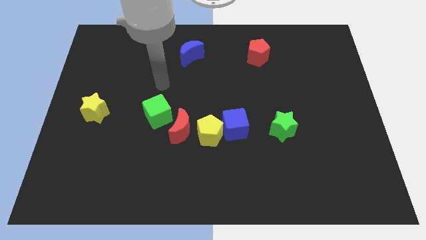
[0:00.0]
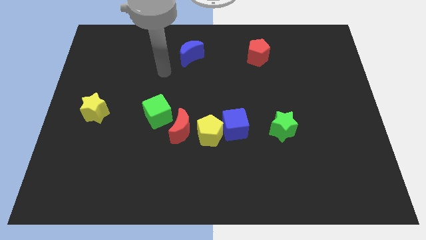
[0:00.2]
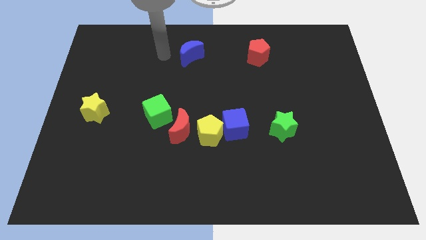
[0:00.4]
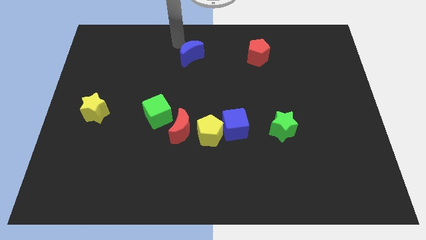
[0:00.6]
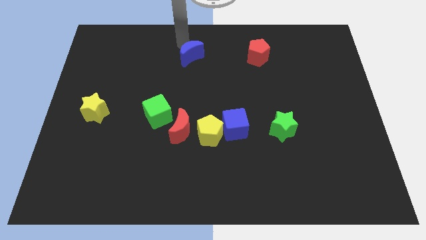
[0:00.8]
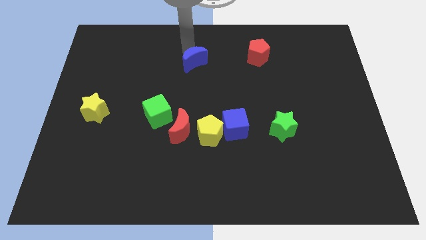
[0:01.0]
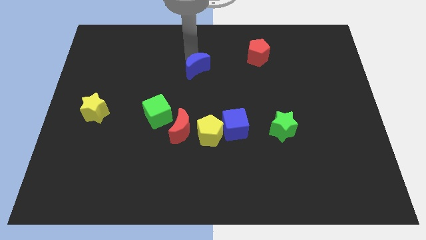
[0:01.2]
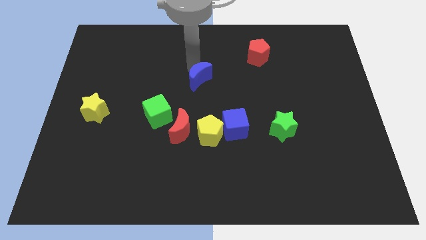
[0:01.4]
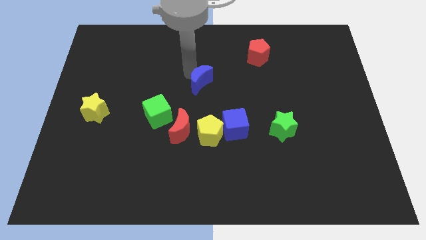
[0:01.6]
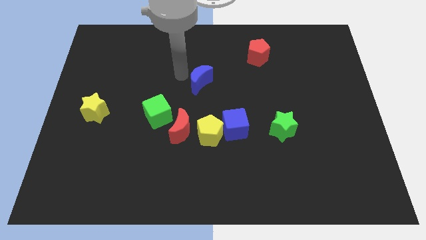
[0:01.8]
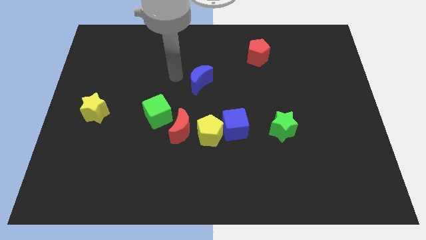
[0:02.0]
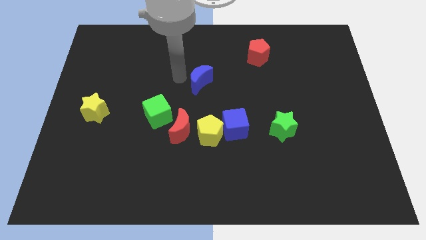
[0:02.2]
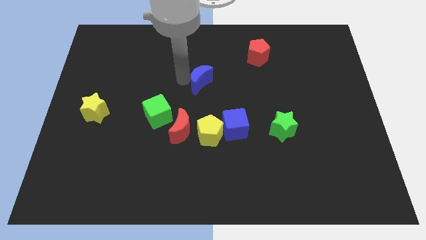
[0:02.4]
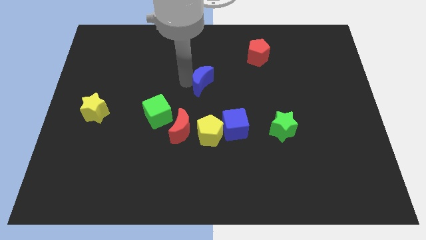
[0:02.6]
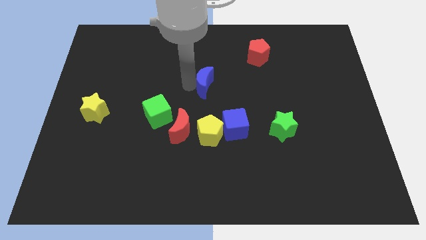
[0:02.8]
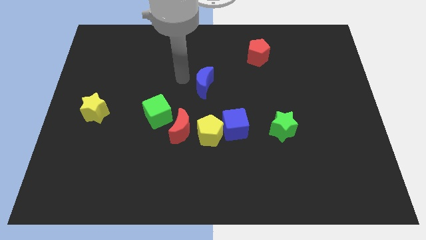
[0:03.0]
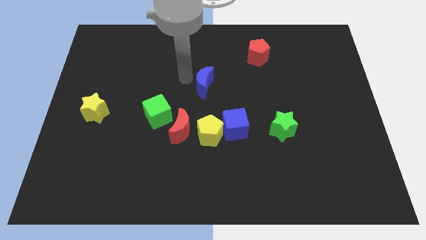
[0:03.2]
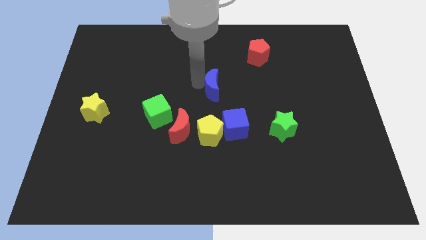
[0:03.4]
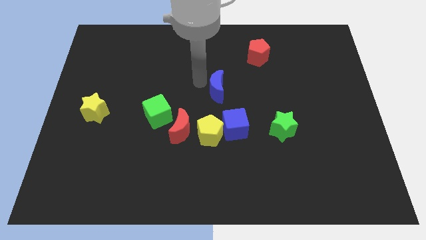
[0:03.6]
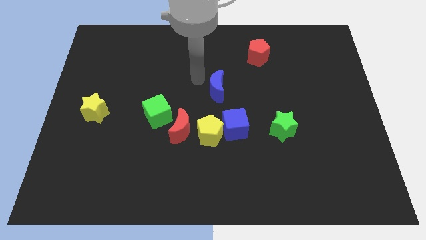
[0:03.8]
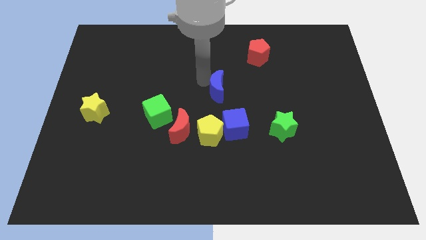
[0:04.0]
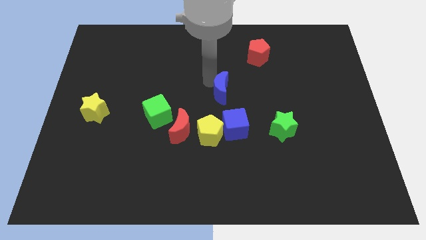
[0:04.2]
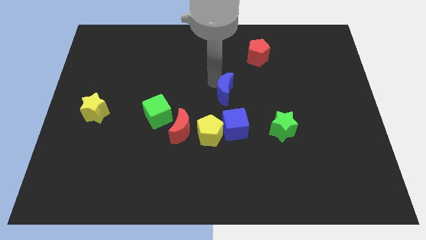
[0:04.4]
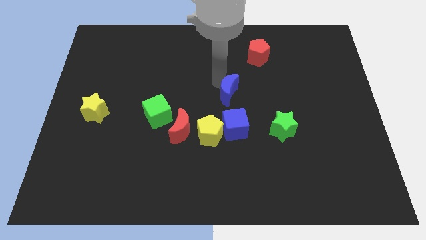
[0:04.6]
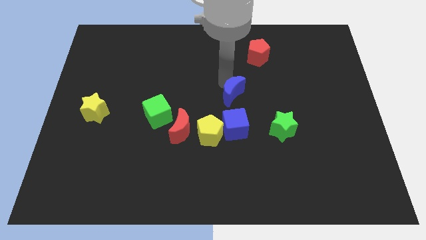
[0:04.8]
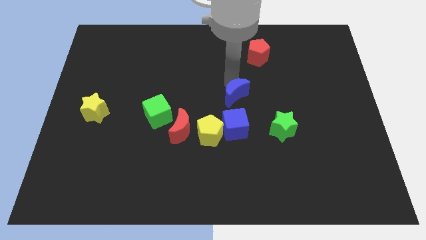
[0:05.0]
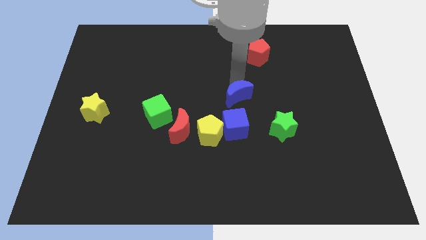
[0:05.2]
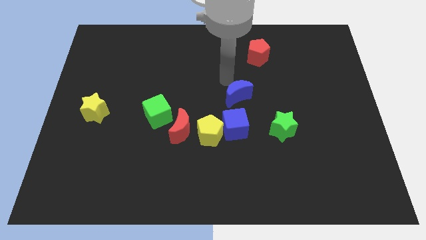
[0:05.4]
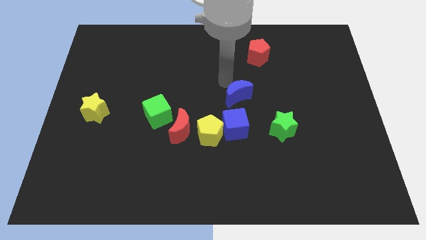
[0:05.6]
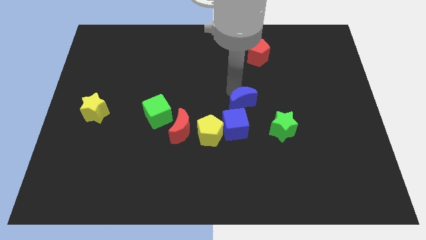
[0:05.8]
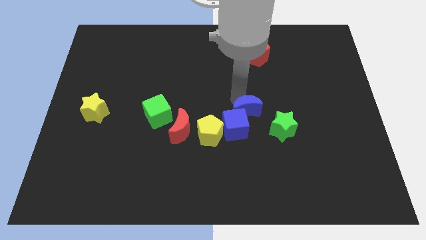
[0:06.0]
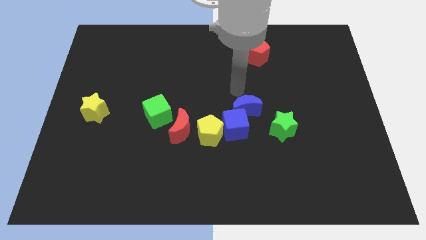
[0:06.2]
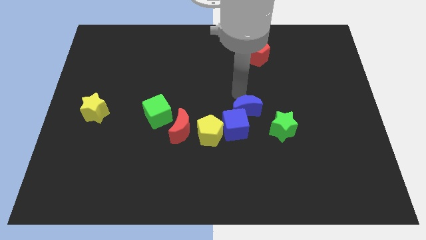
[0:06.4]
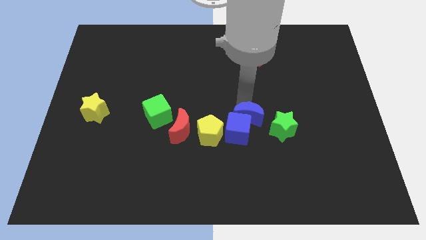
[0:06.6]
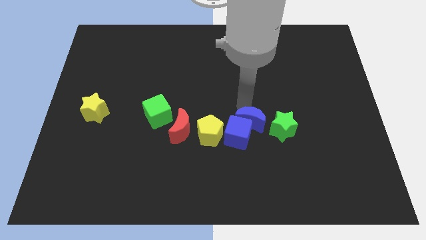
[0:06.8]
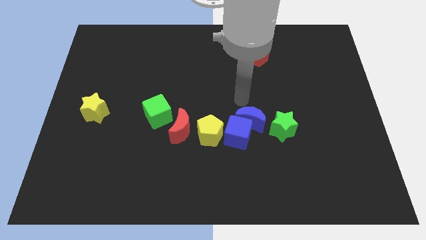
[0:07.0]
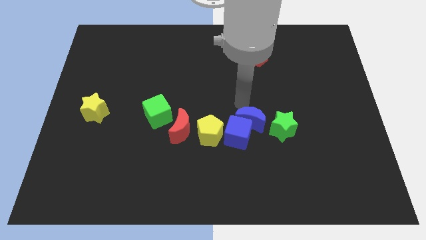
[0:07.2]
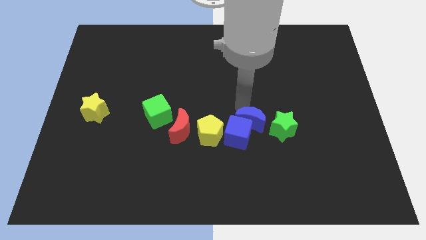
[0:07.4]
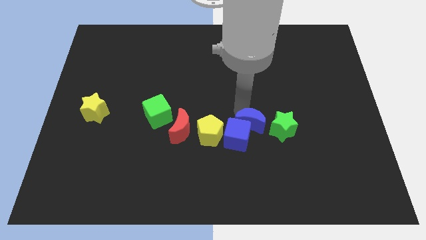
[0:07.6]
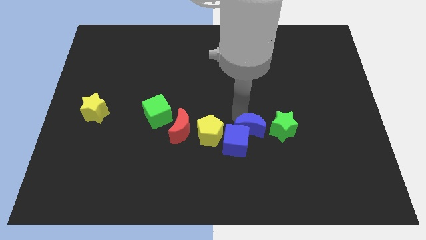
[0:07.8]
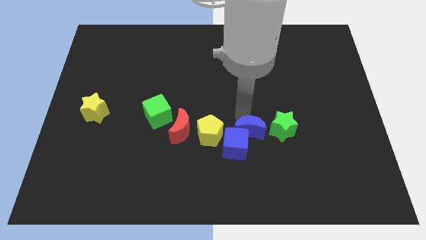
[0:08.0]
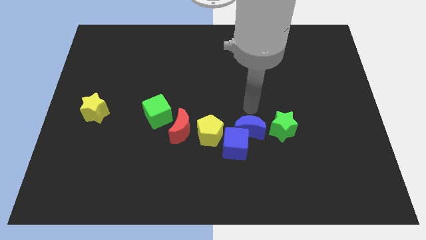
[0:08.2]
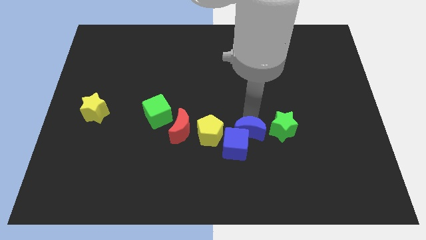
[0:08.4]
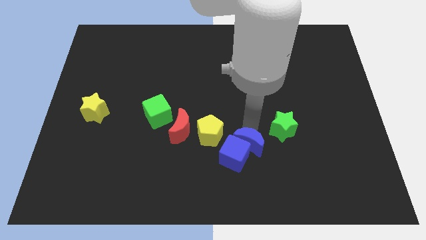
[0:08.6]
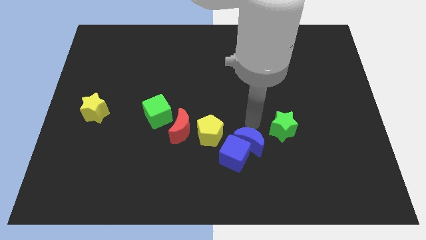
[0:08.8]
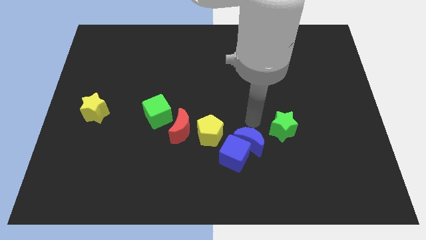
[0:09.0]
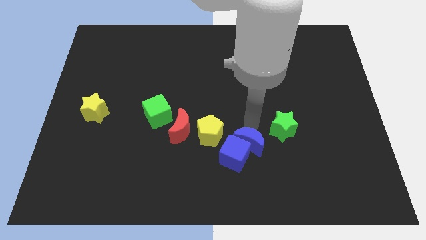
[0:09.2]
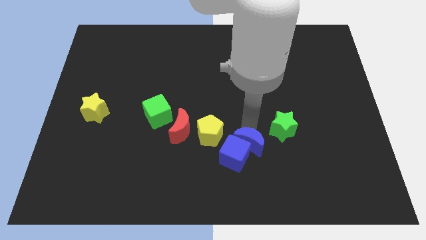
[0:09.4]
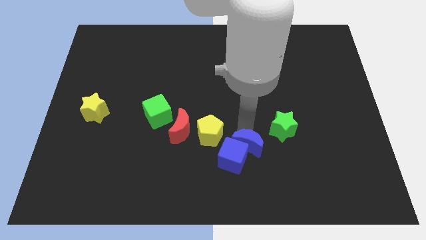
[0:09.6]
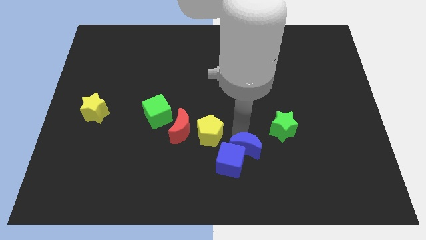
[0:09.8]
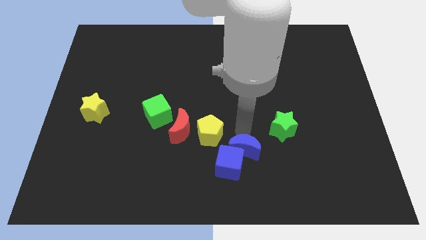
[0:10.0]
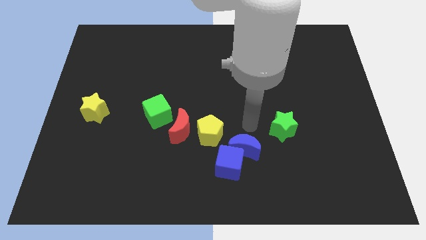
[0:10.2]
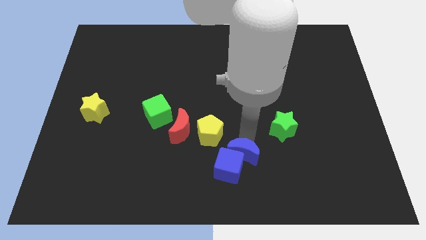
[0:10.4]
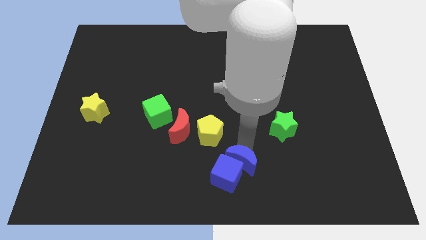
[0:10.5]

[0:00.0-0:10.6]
put the blue moon to the bottom

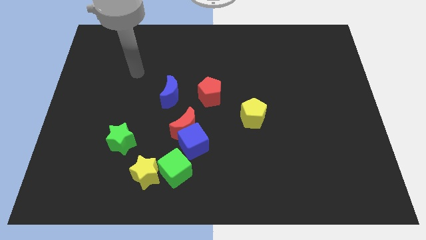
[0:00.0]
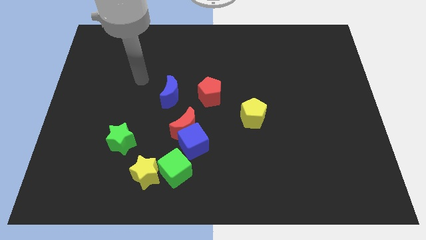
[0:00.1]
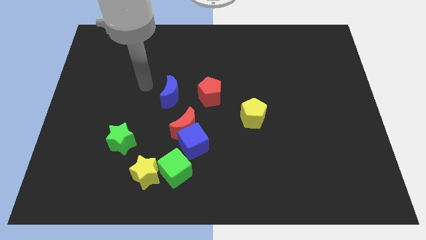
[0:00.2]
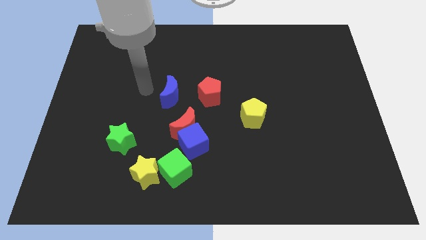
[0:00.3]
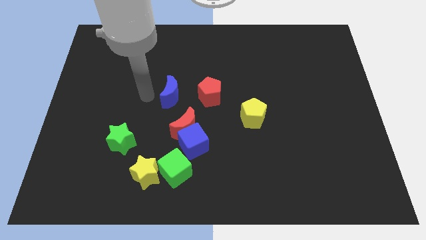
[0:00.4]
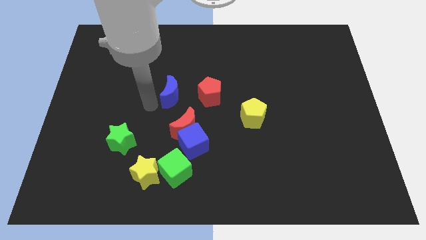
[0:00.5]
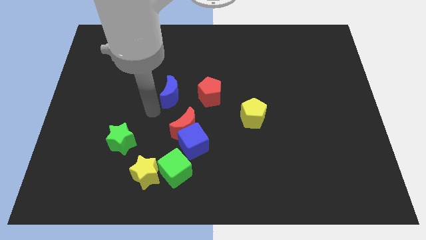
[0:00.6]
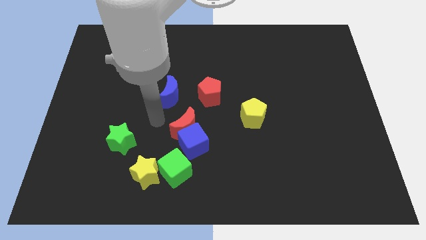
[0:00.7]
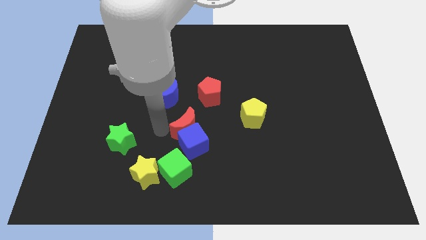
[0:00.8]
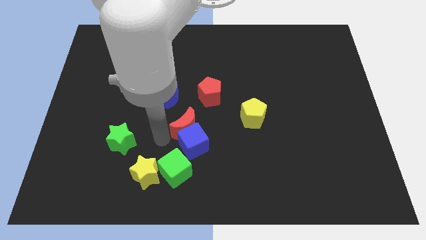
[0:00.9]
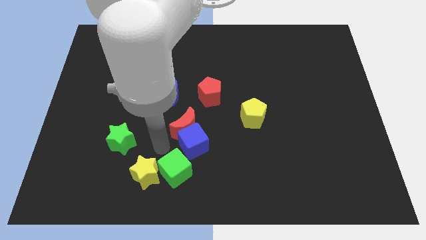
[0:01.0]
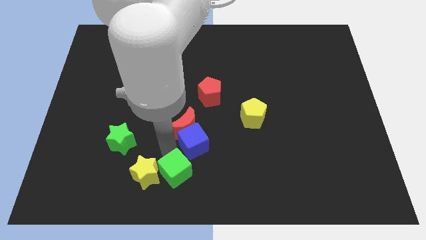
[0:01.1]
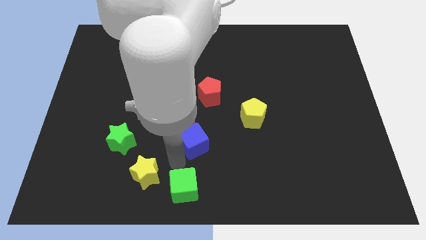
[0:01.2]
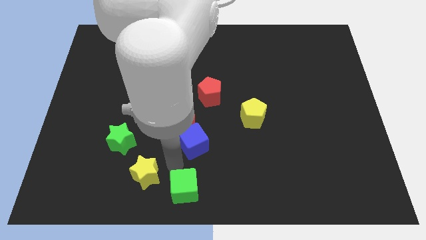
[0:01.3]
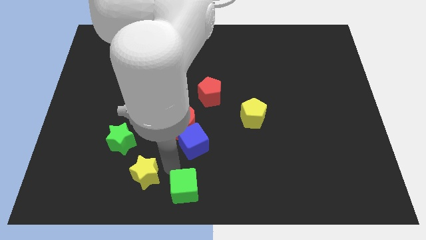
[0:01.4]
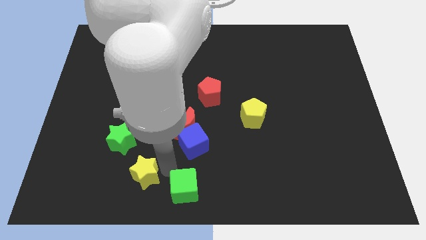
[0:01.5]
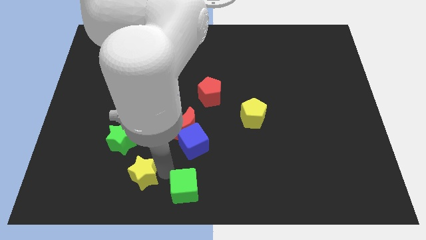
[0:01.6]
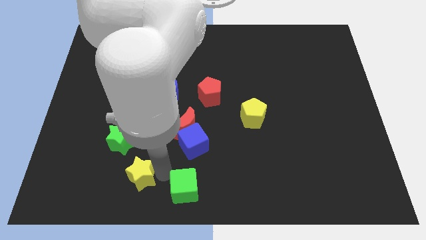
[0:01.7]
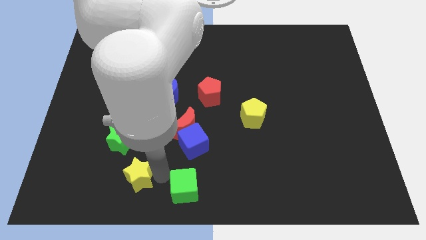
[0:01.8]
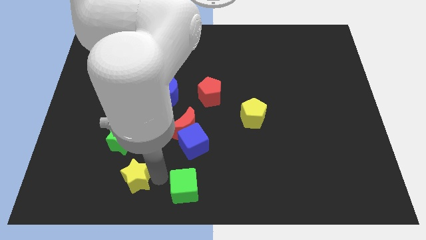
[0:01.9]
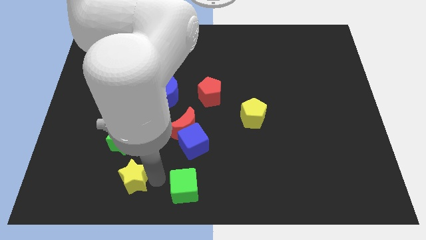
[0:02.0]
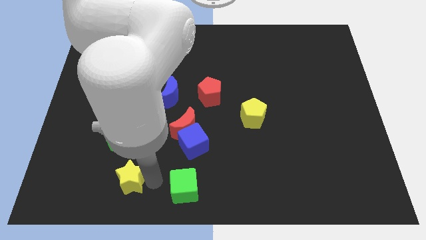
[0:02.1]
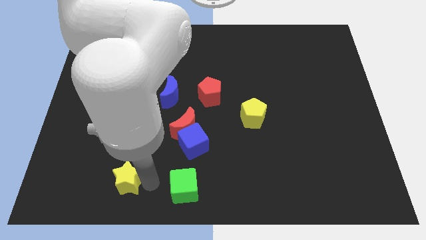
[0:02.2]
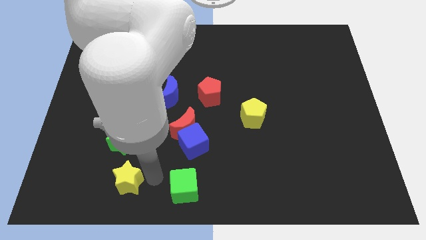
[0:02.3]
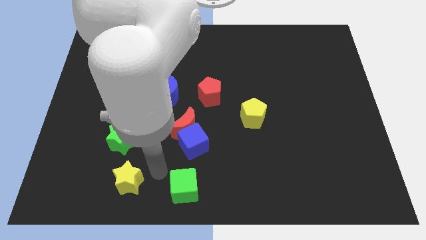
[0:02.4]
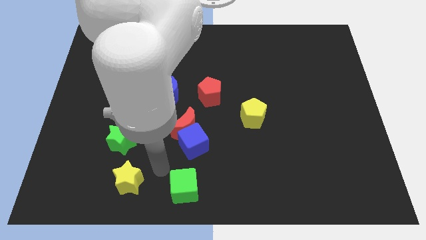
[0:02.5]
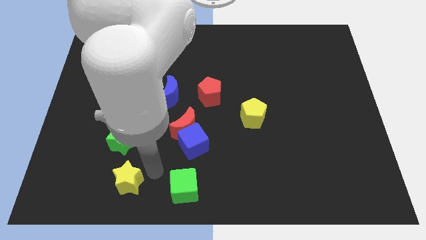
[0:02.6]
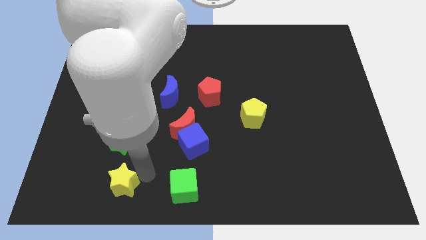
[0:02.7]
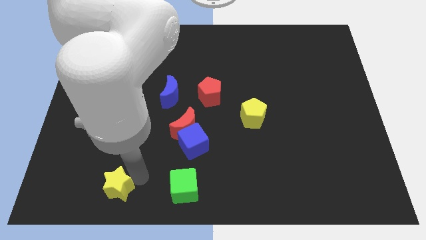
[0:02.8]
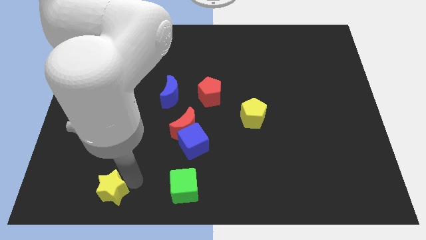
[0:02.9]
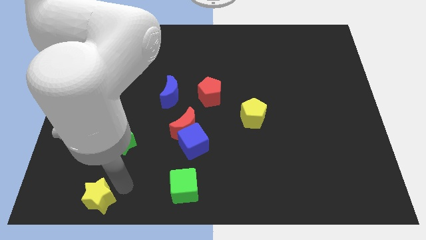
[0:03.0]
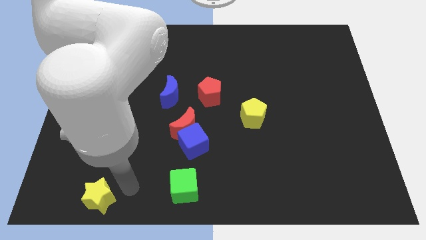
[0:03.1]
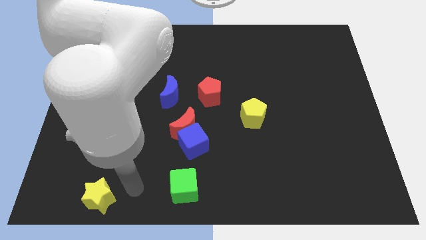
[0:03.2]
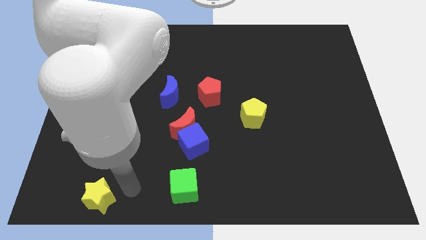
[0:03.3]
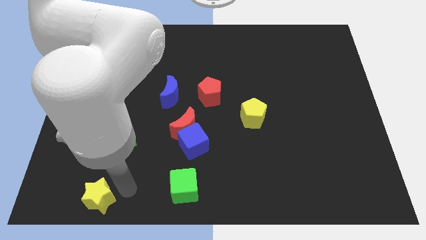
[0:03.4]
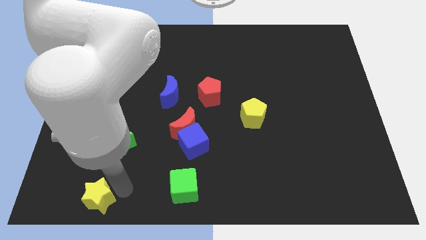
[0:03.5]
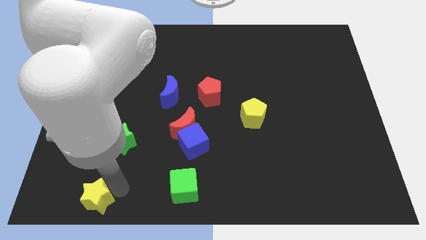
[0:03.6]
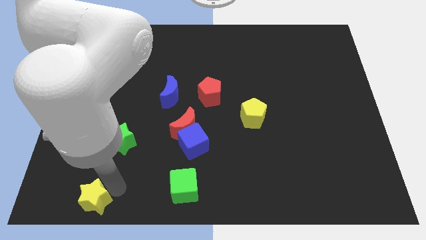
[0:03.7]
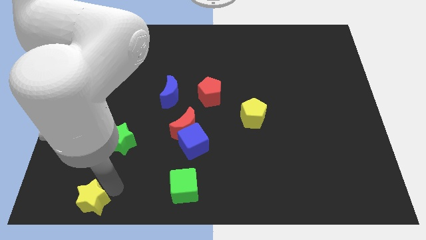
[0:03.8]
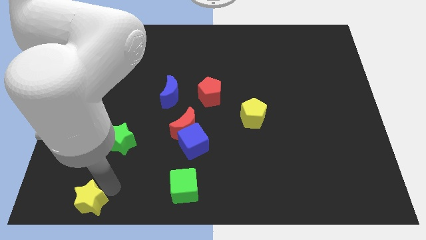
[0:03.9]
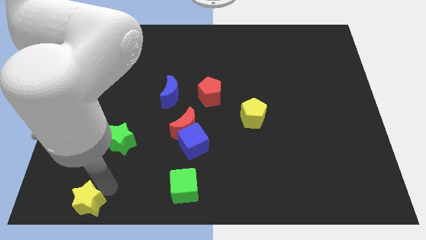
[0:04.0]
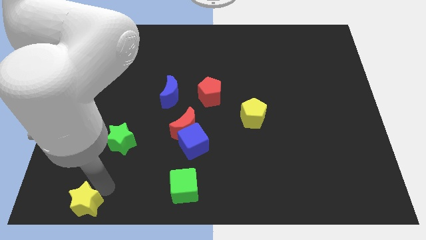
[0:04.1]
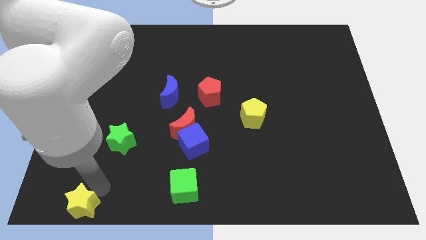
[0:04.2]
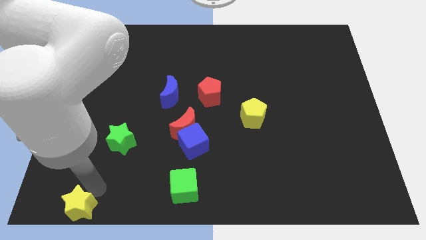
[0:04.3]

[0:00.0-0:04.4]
put the yellow star to the bottom left of the board
